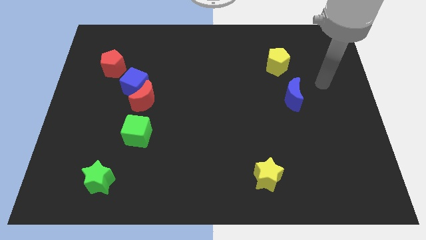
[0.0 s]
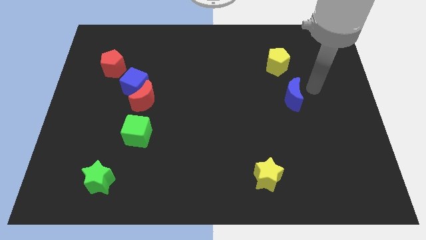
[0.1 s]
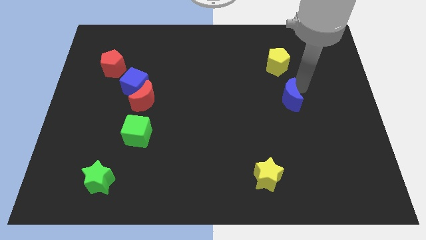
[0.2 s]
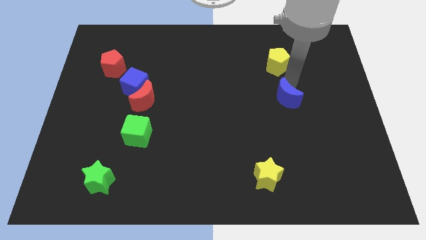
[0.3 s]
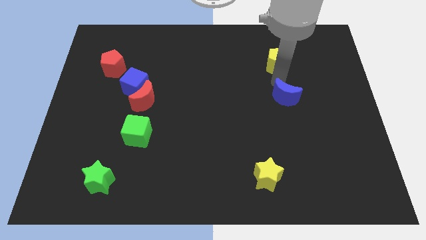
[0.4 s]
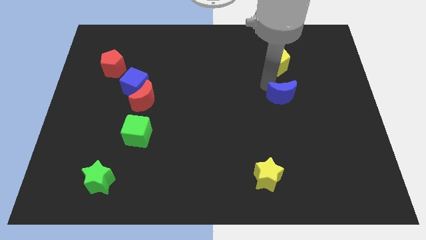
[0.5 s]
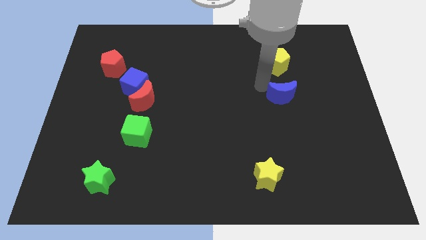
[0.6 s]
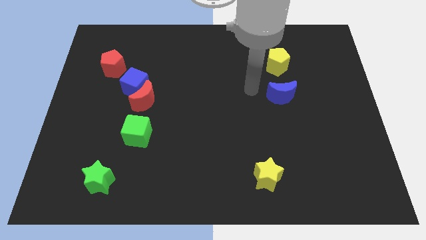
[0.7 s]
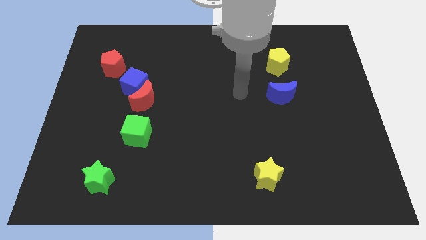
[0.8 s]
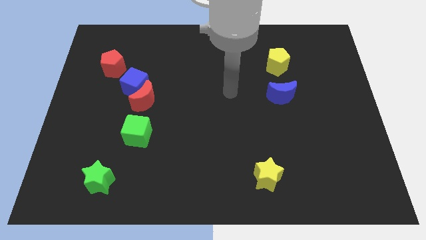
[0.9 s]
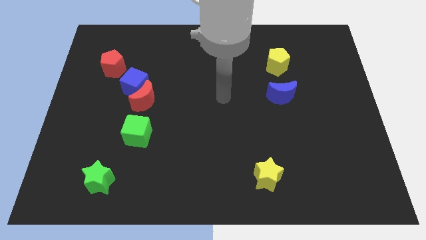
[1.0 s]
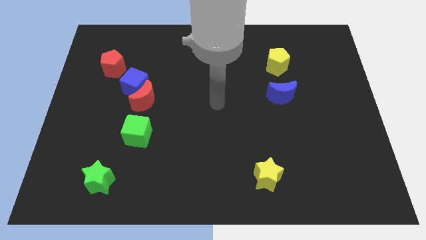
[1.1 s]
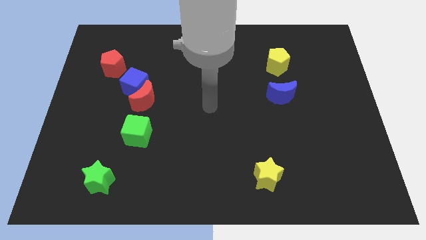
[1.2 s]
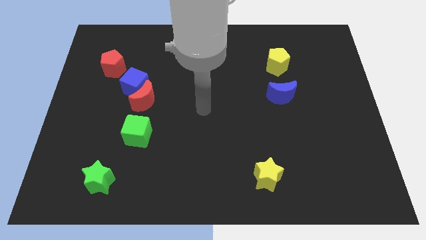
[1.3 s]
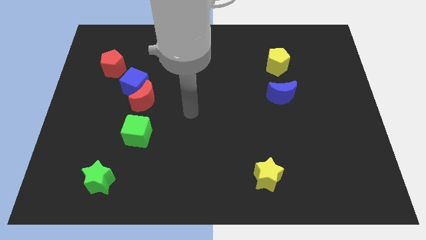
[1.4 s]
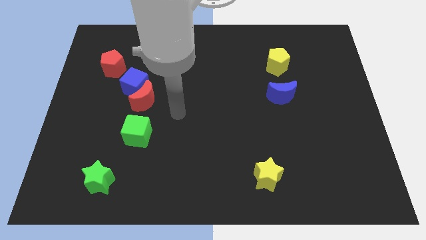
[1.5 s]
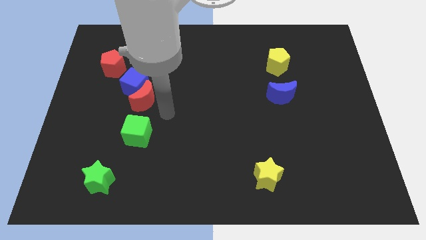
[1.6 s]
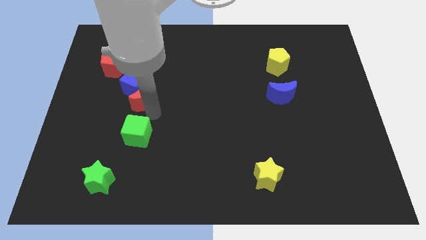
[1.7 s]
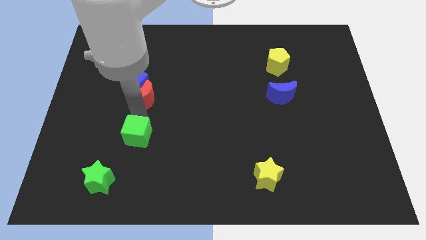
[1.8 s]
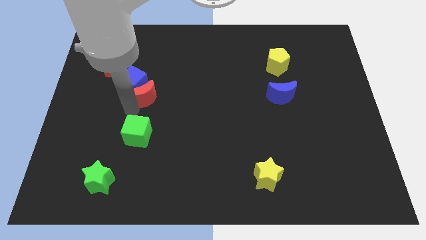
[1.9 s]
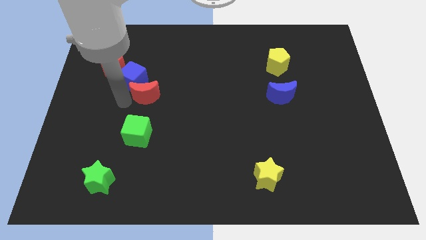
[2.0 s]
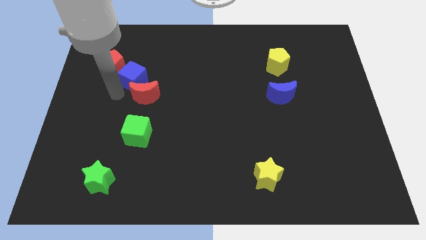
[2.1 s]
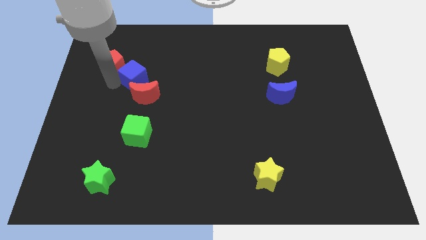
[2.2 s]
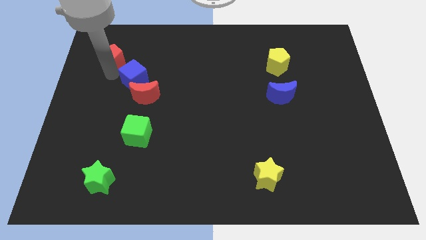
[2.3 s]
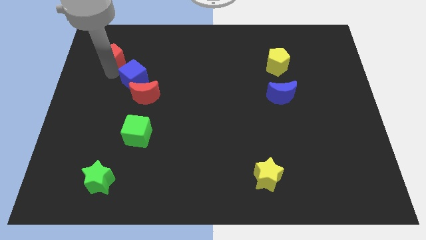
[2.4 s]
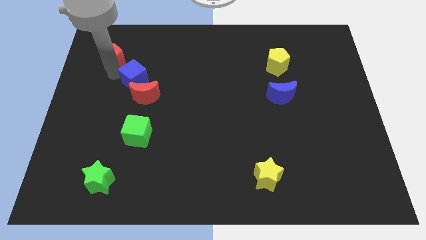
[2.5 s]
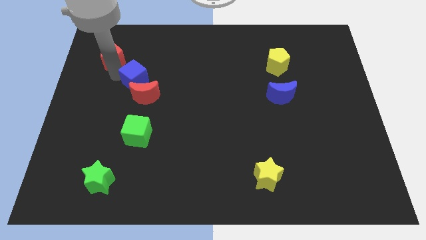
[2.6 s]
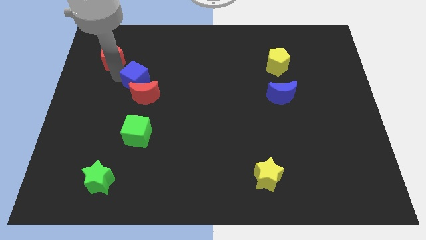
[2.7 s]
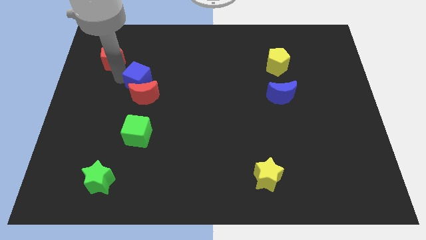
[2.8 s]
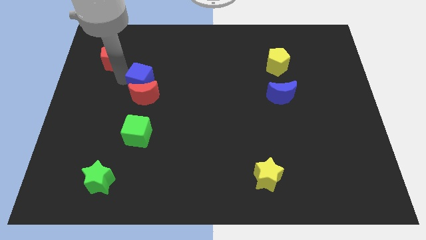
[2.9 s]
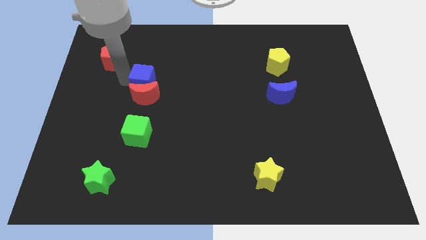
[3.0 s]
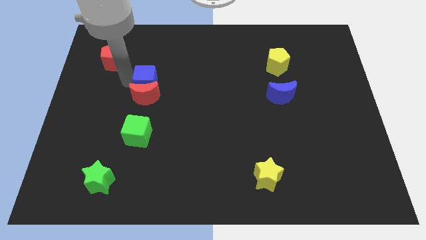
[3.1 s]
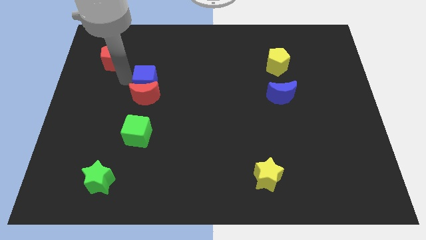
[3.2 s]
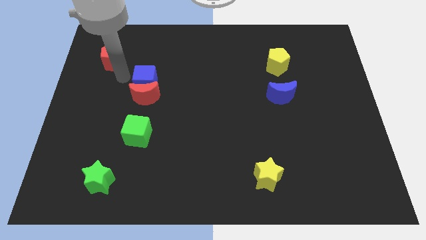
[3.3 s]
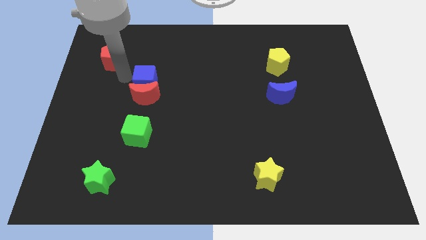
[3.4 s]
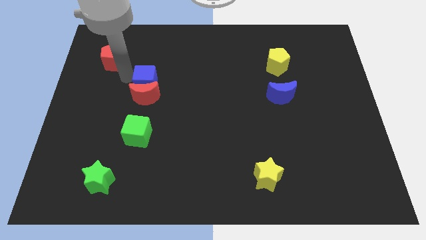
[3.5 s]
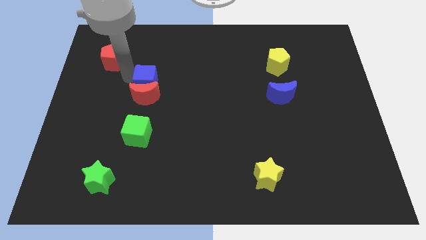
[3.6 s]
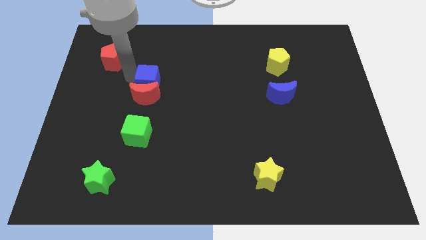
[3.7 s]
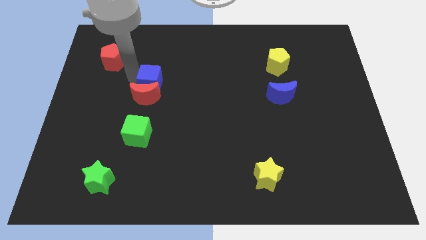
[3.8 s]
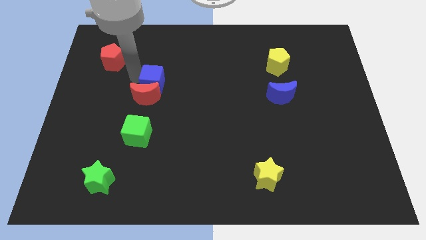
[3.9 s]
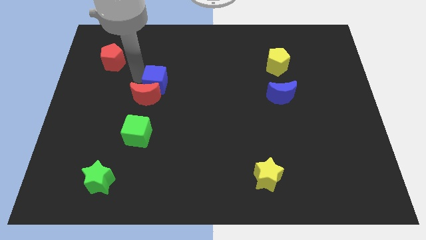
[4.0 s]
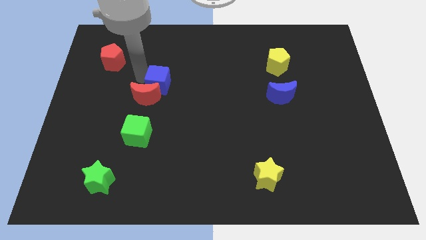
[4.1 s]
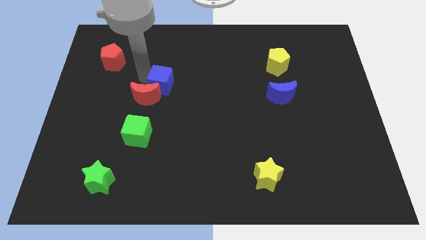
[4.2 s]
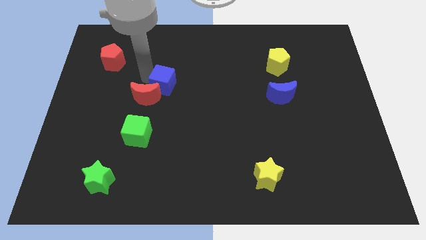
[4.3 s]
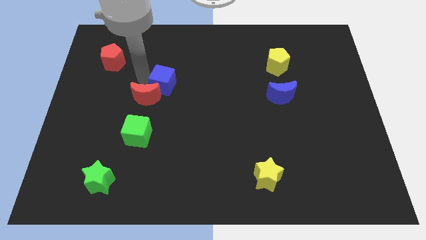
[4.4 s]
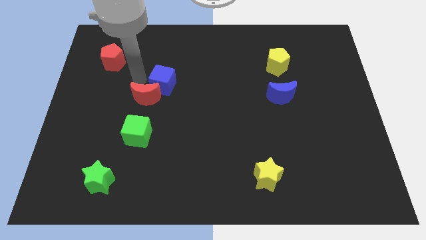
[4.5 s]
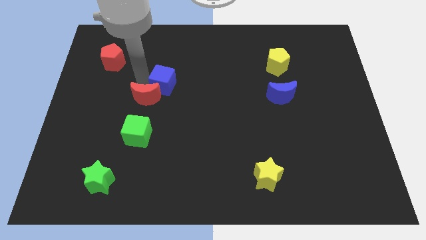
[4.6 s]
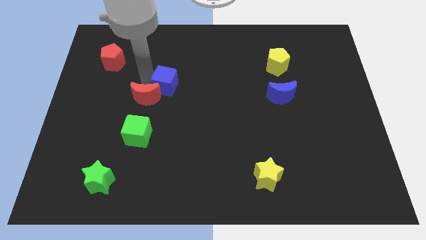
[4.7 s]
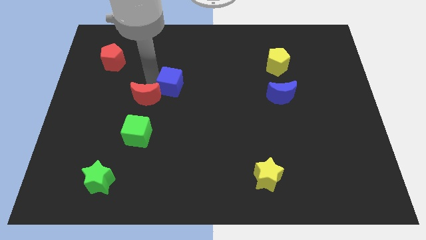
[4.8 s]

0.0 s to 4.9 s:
pull the blue cube apart from the red moon and red pentagon

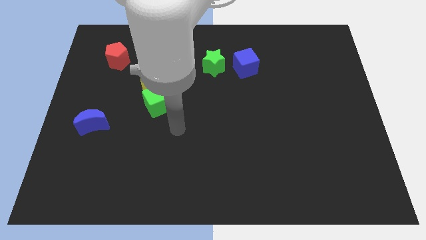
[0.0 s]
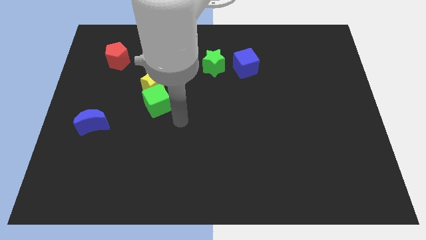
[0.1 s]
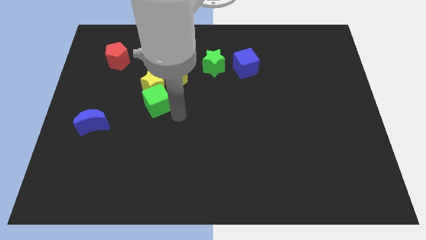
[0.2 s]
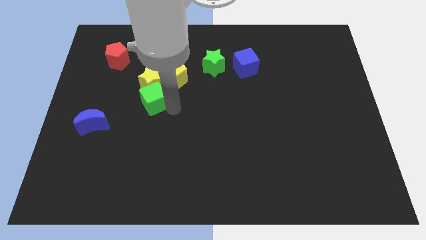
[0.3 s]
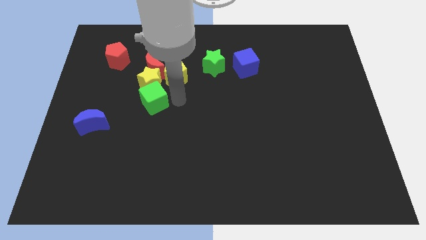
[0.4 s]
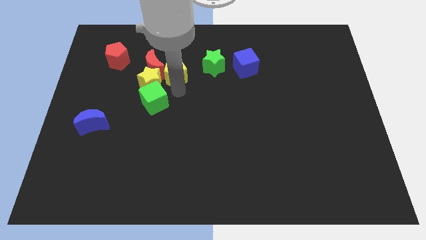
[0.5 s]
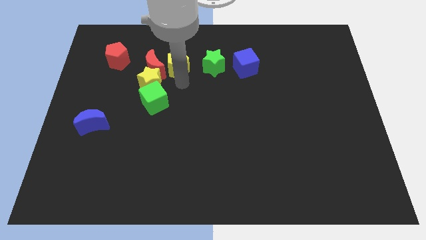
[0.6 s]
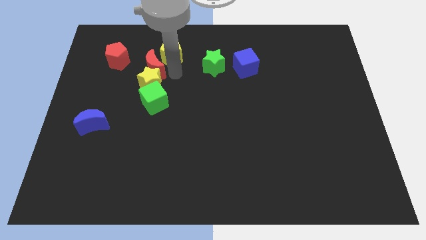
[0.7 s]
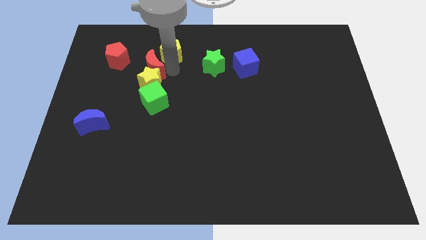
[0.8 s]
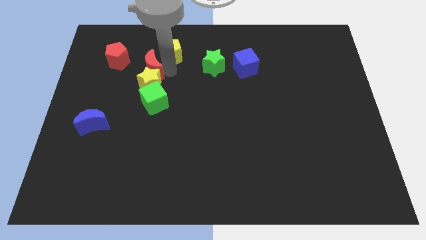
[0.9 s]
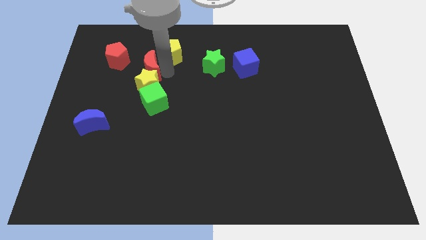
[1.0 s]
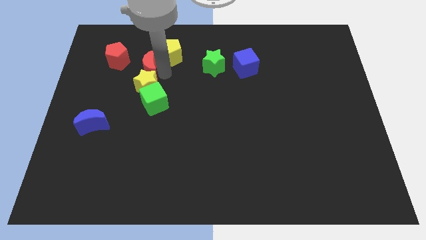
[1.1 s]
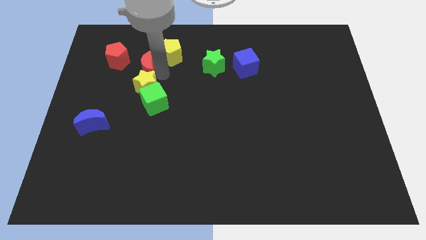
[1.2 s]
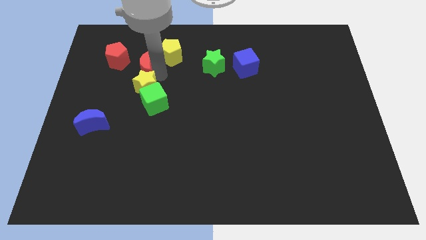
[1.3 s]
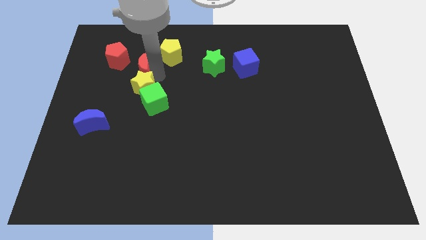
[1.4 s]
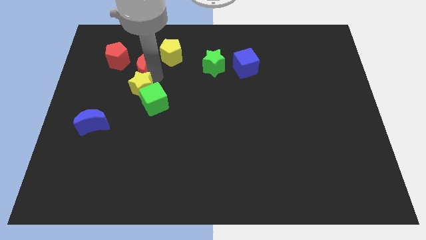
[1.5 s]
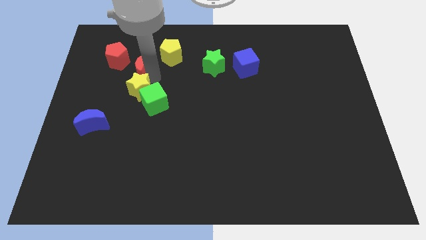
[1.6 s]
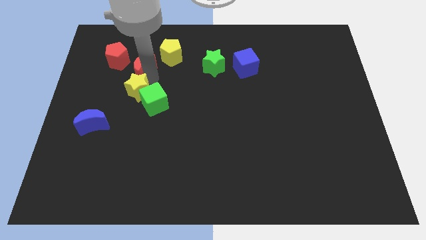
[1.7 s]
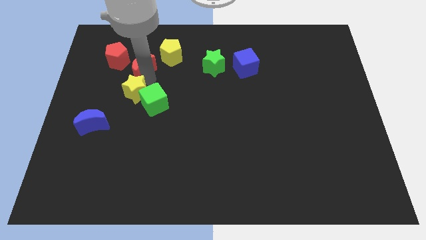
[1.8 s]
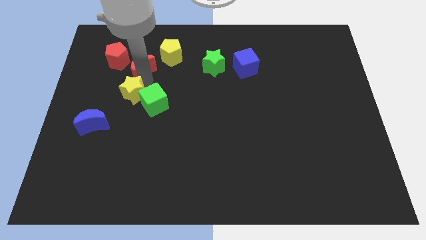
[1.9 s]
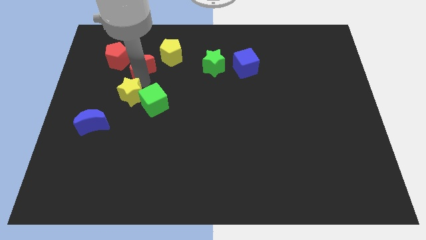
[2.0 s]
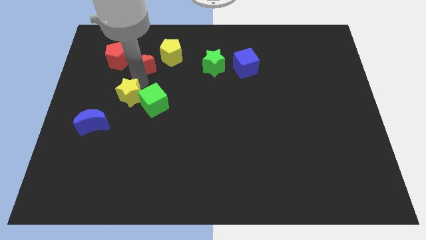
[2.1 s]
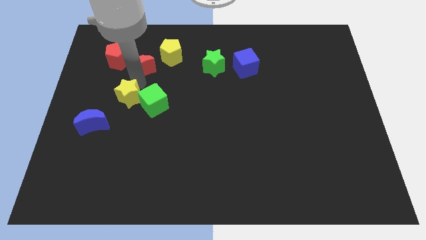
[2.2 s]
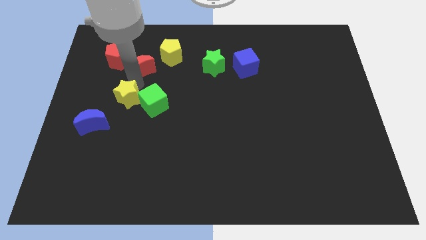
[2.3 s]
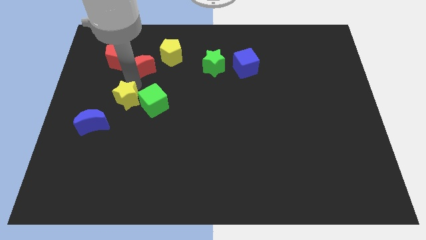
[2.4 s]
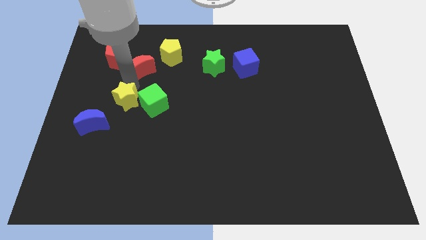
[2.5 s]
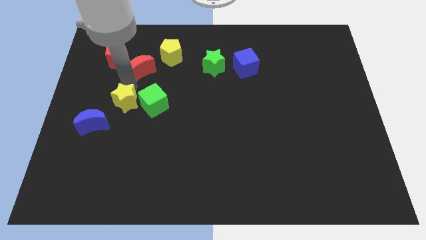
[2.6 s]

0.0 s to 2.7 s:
pull the yellow star apart from the green cube, red moon, and yellow pentagon

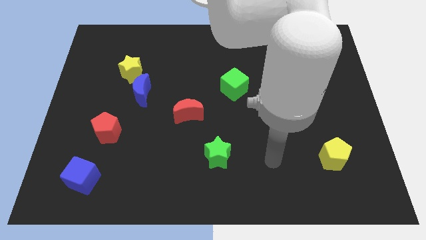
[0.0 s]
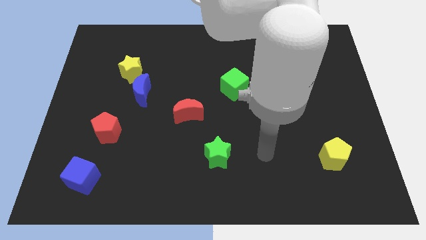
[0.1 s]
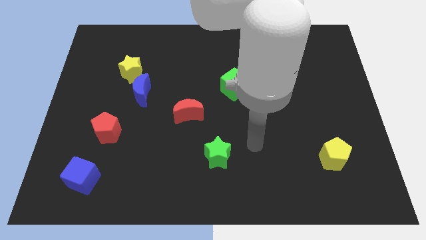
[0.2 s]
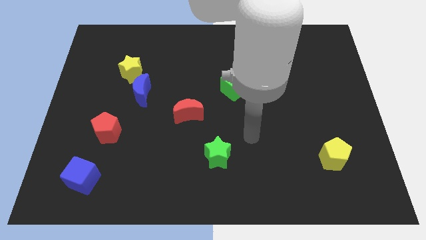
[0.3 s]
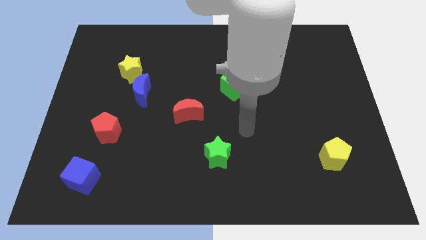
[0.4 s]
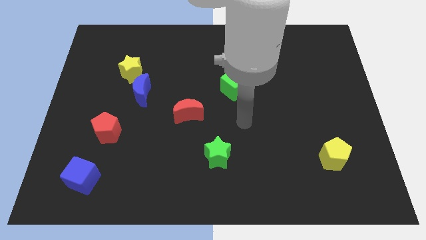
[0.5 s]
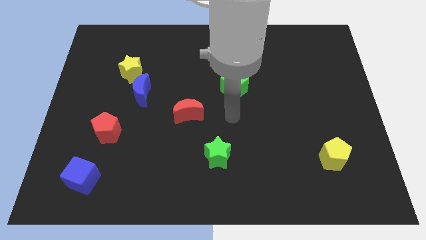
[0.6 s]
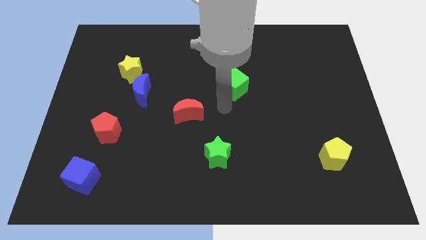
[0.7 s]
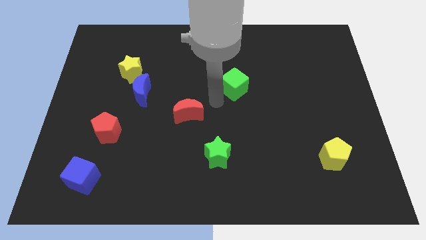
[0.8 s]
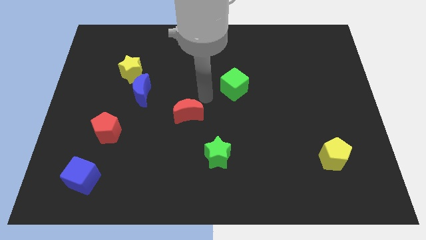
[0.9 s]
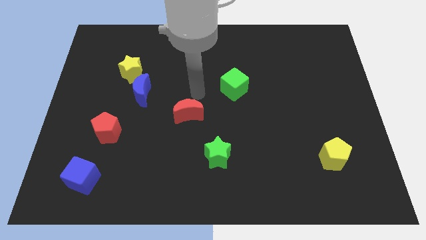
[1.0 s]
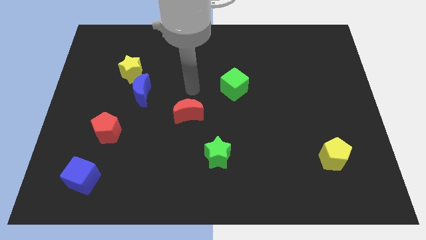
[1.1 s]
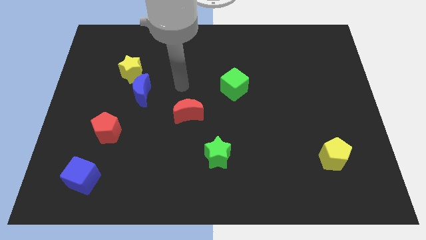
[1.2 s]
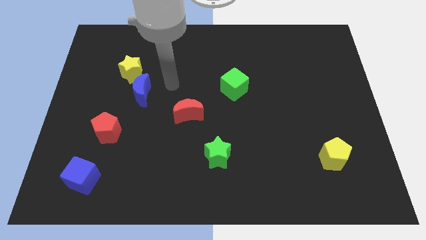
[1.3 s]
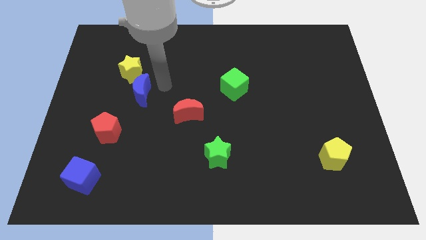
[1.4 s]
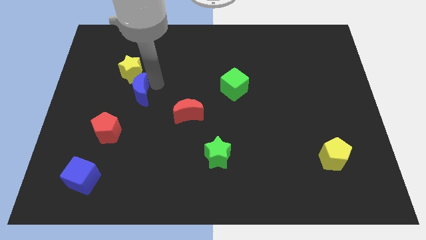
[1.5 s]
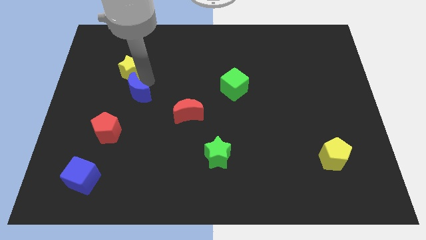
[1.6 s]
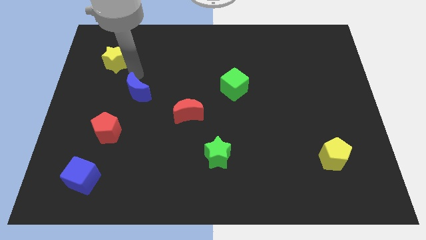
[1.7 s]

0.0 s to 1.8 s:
move the blue moon away from the yellow star
